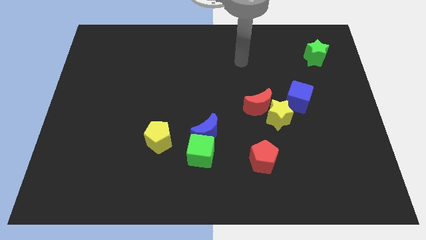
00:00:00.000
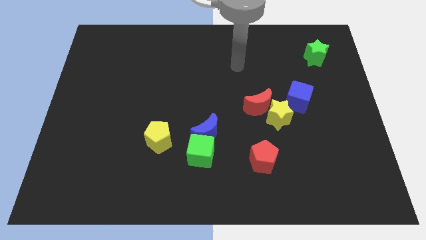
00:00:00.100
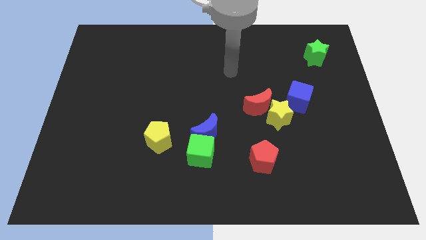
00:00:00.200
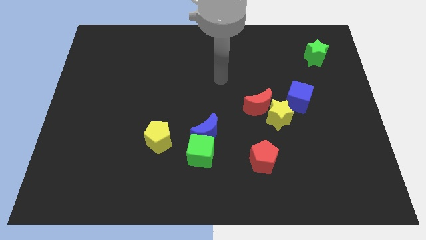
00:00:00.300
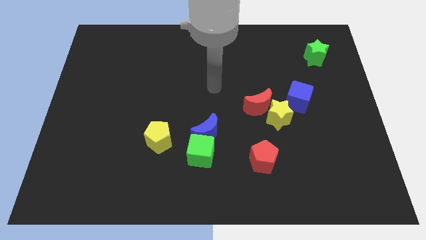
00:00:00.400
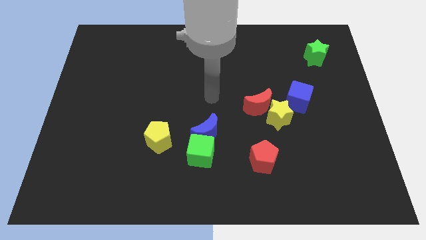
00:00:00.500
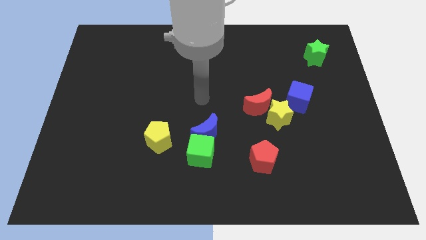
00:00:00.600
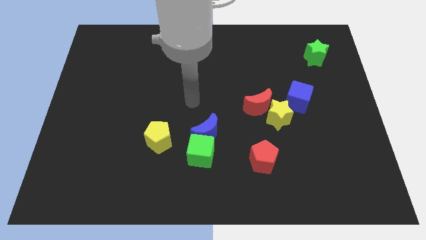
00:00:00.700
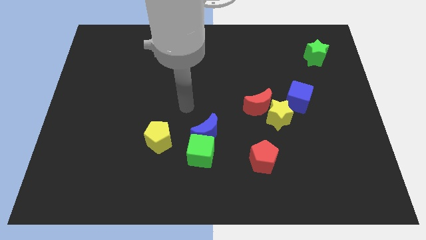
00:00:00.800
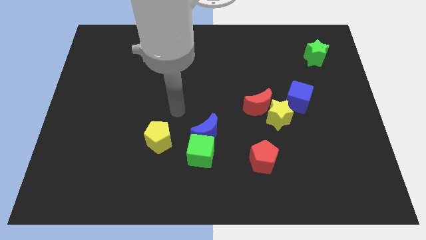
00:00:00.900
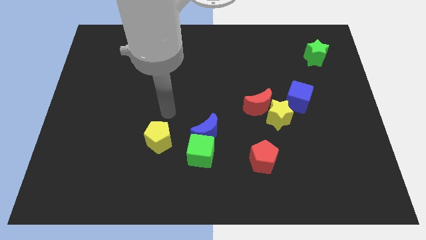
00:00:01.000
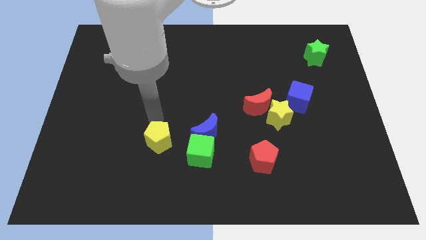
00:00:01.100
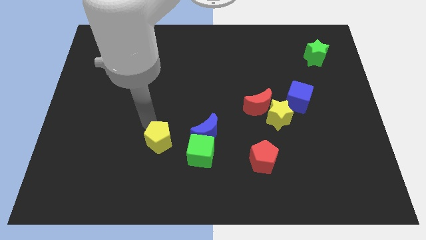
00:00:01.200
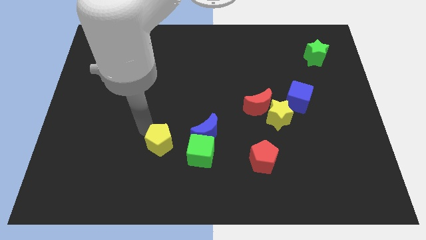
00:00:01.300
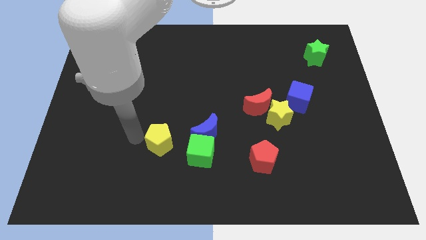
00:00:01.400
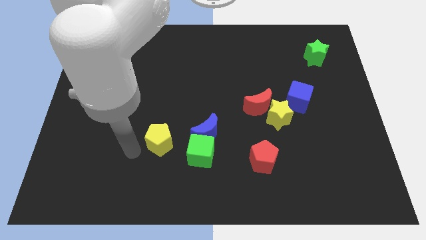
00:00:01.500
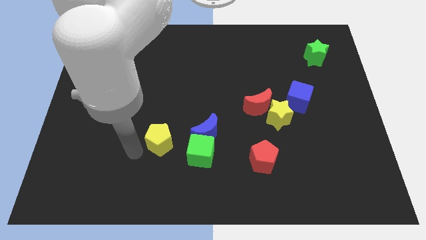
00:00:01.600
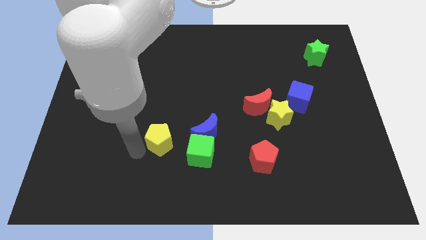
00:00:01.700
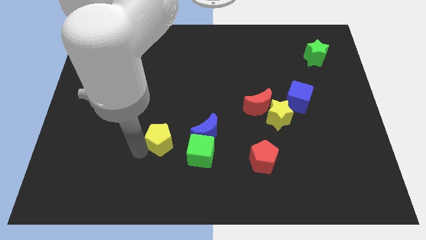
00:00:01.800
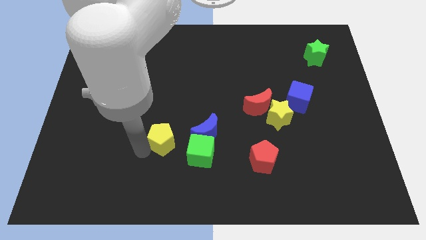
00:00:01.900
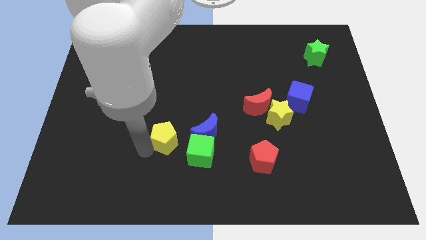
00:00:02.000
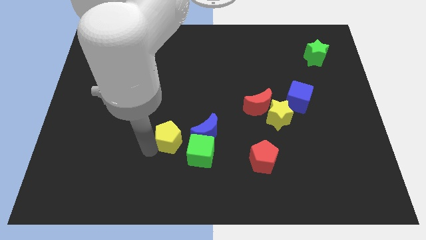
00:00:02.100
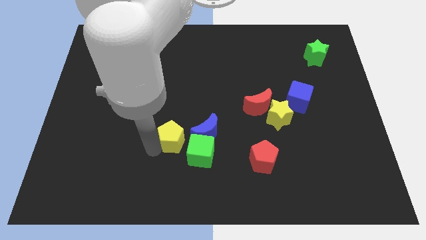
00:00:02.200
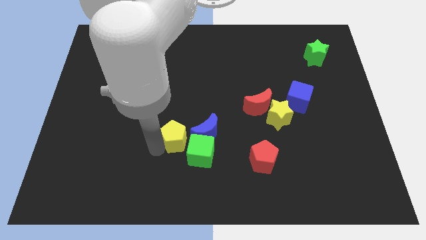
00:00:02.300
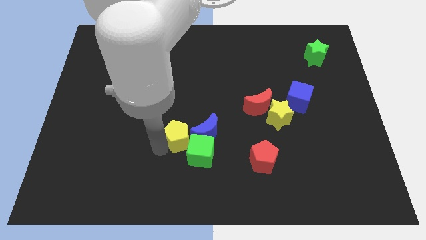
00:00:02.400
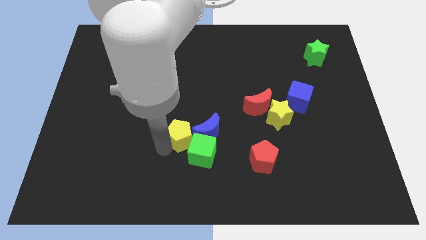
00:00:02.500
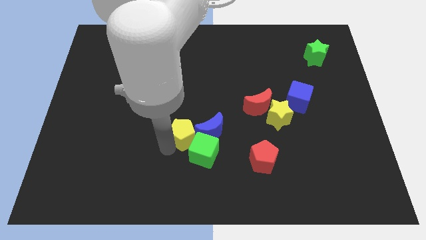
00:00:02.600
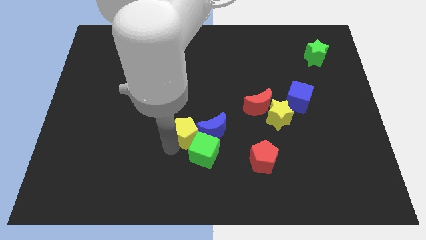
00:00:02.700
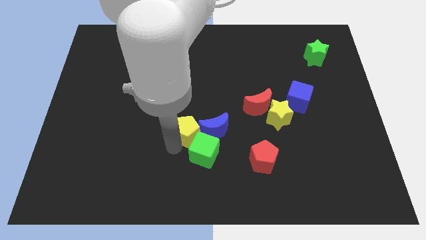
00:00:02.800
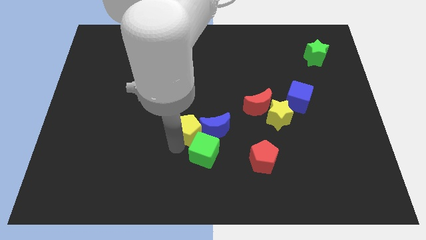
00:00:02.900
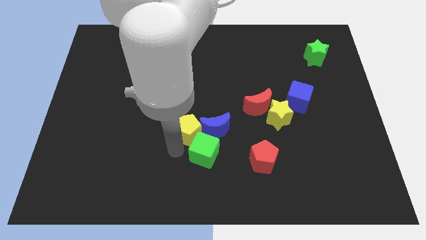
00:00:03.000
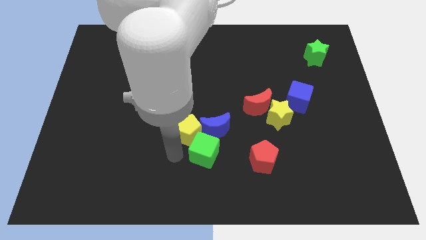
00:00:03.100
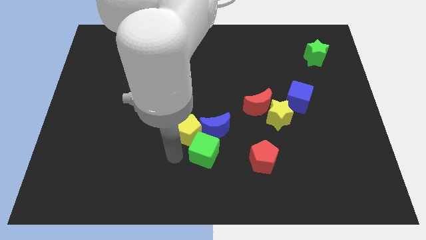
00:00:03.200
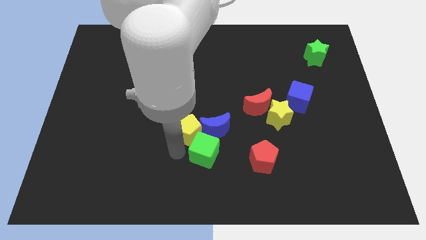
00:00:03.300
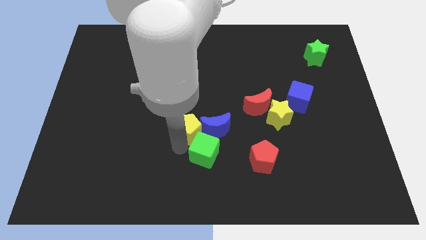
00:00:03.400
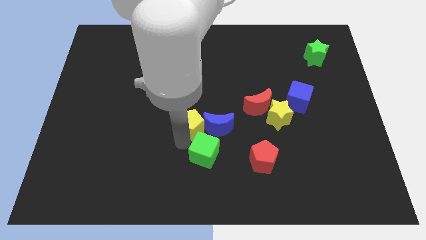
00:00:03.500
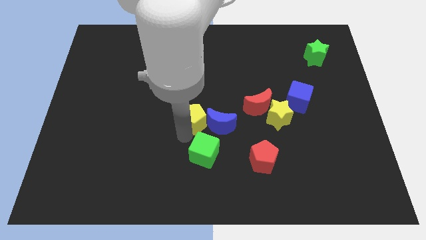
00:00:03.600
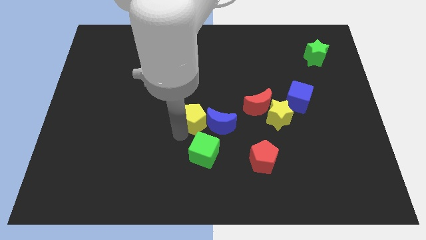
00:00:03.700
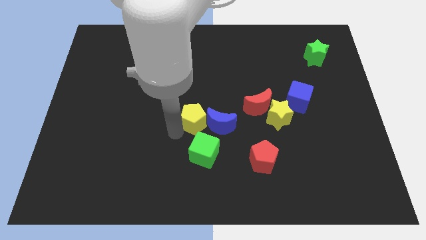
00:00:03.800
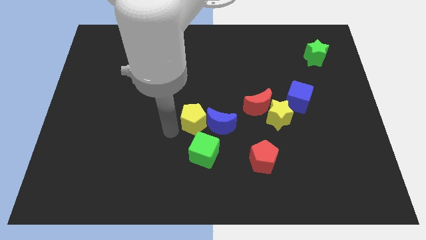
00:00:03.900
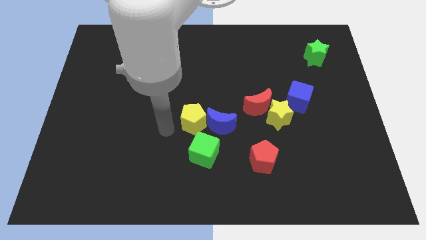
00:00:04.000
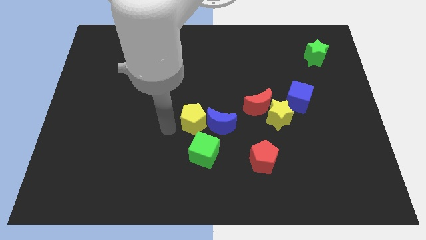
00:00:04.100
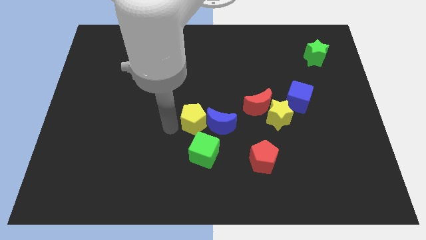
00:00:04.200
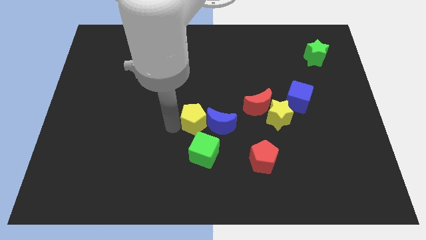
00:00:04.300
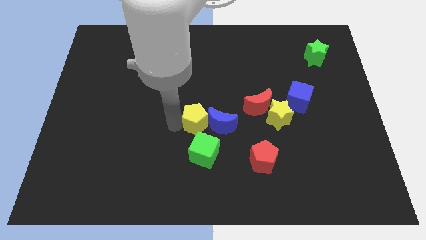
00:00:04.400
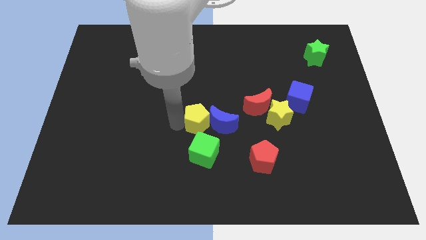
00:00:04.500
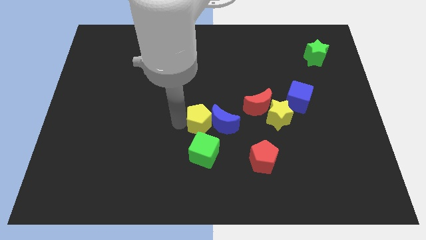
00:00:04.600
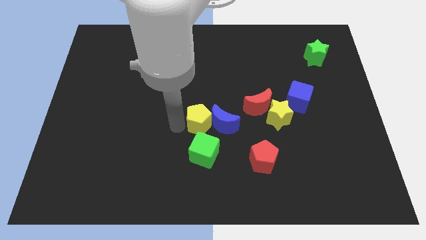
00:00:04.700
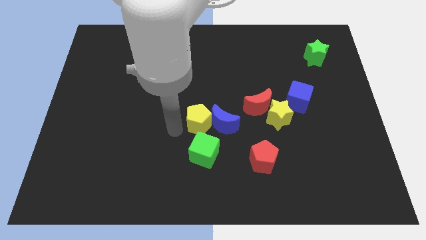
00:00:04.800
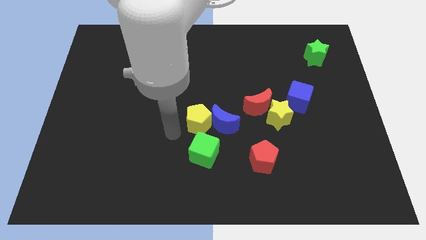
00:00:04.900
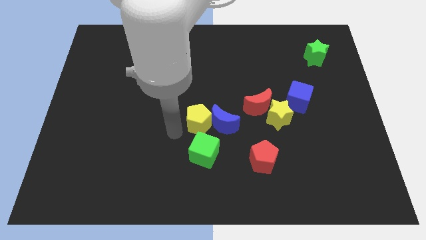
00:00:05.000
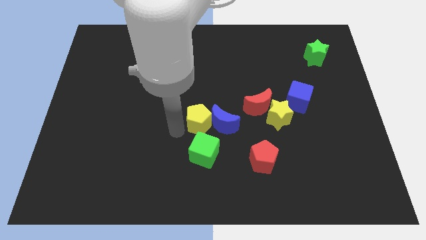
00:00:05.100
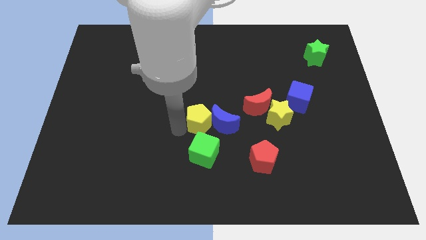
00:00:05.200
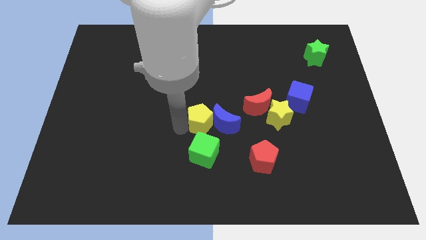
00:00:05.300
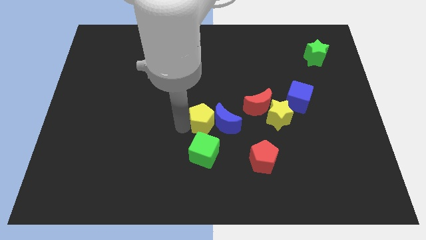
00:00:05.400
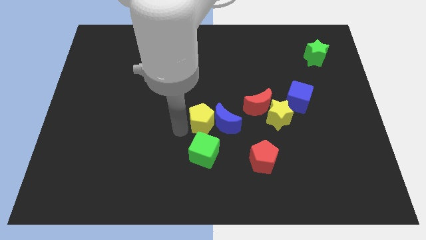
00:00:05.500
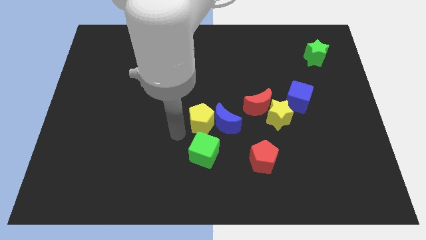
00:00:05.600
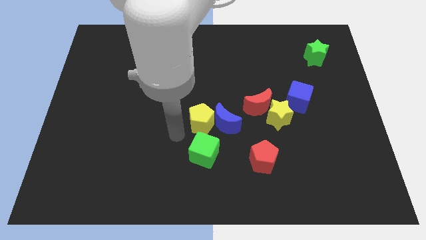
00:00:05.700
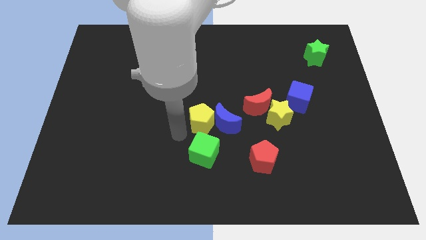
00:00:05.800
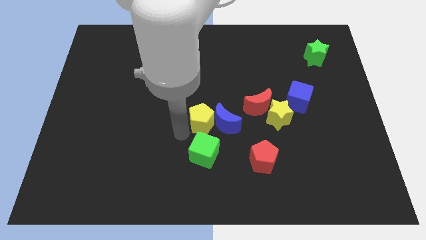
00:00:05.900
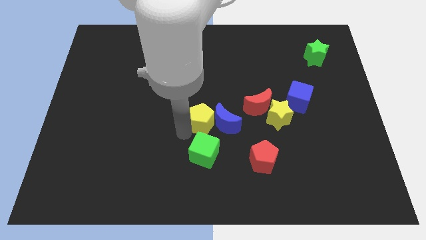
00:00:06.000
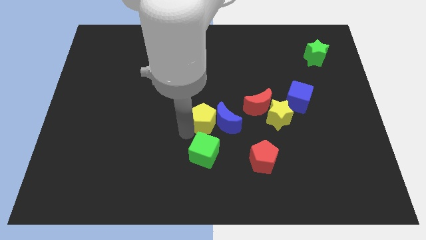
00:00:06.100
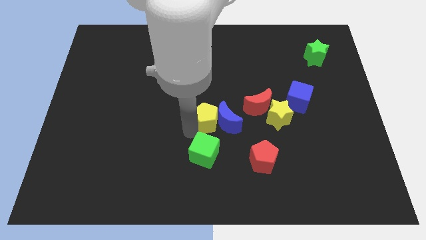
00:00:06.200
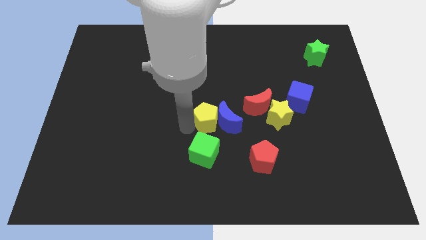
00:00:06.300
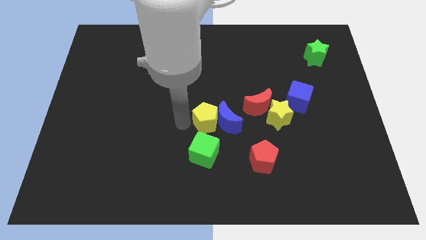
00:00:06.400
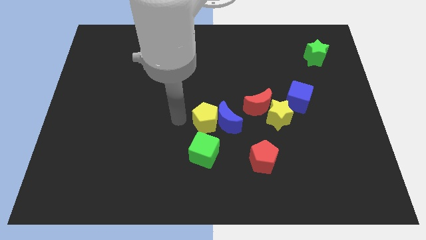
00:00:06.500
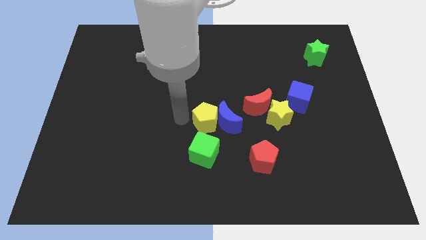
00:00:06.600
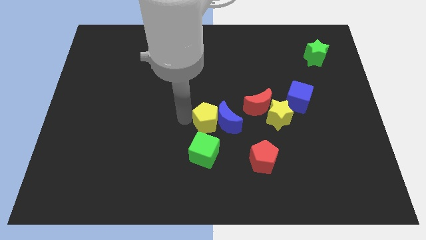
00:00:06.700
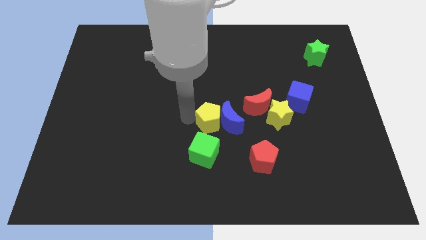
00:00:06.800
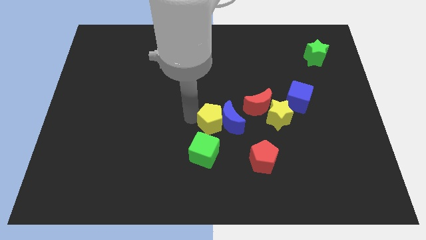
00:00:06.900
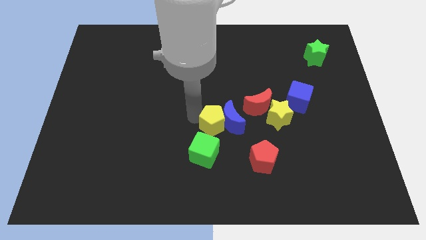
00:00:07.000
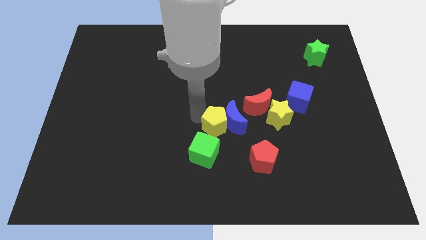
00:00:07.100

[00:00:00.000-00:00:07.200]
push the yellow pentagon to the bottom left of the red moon
